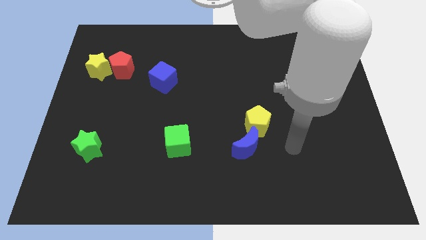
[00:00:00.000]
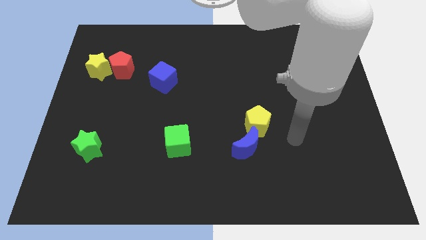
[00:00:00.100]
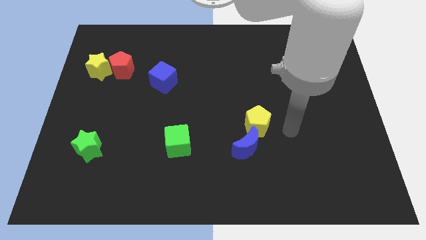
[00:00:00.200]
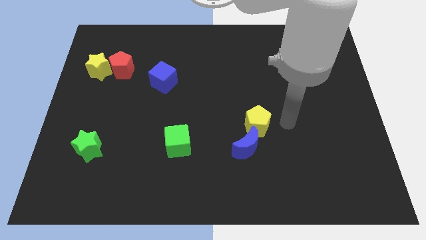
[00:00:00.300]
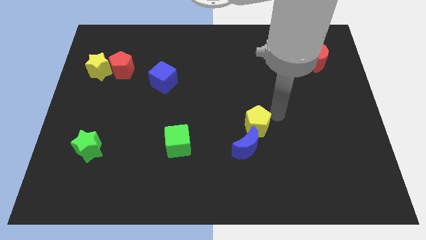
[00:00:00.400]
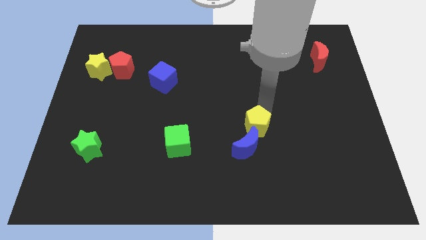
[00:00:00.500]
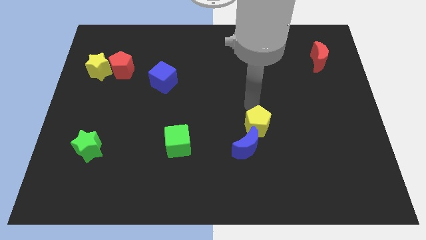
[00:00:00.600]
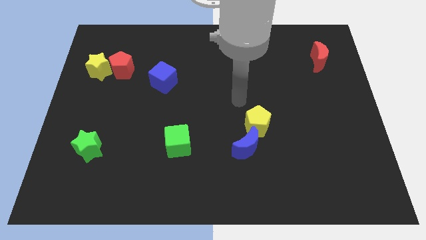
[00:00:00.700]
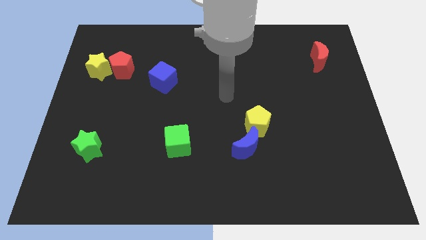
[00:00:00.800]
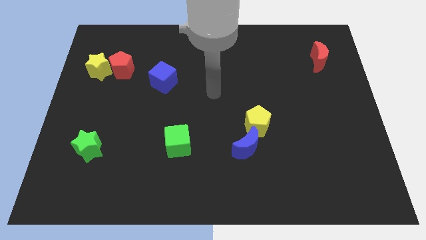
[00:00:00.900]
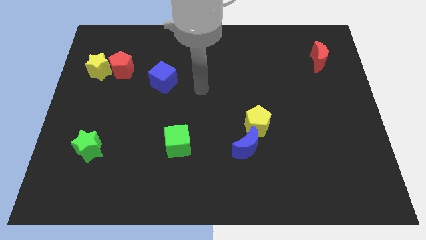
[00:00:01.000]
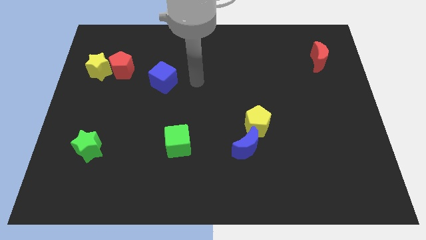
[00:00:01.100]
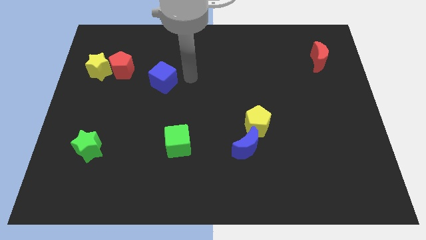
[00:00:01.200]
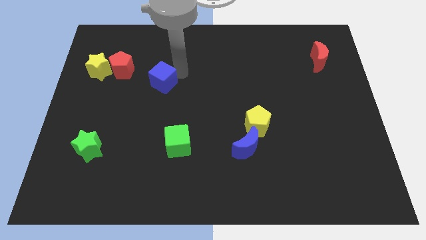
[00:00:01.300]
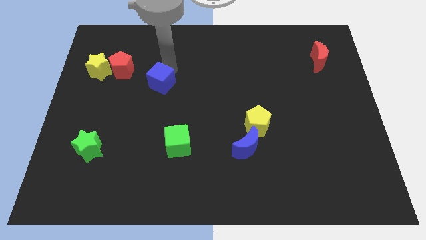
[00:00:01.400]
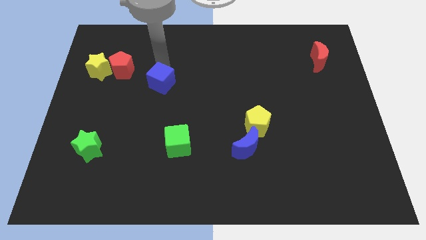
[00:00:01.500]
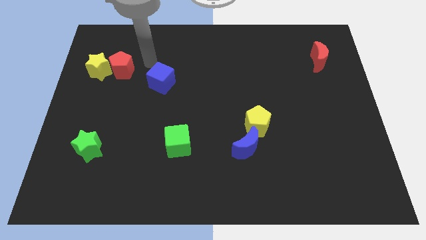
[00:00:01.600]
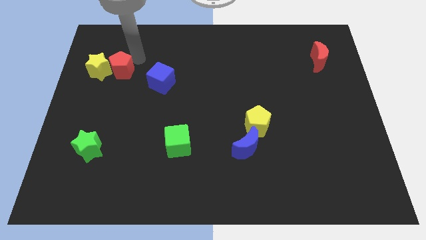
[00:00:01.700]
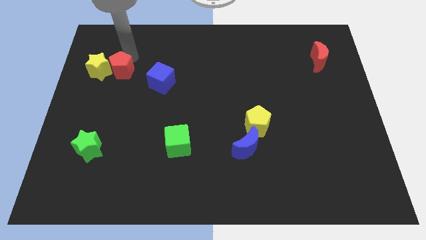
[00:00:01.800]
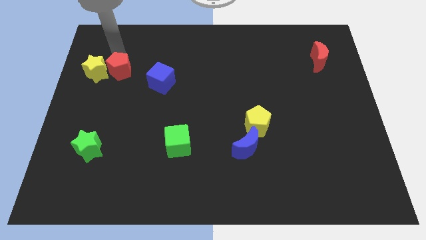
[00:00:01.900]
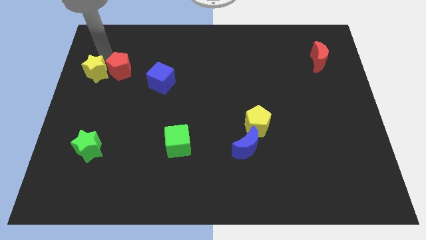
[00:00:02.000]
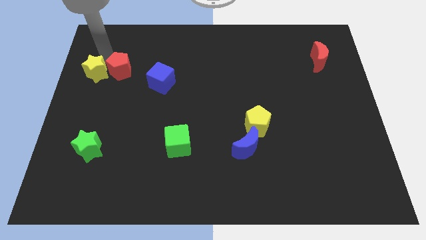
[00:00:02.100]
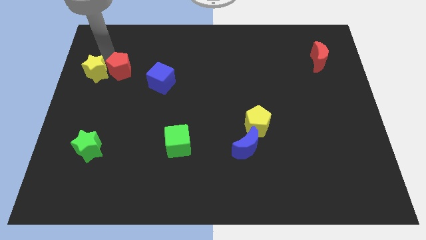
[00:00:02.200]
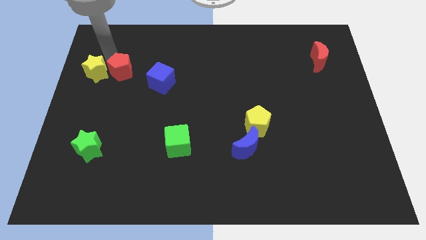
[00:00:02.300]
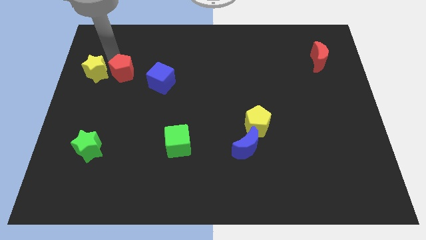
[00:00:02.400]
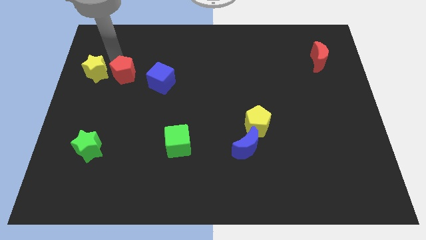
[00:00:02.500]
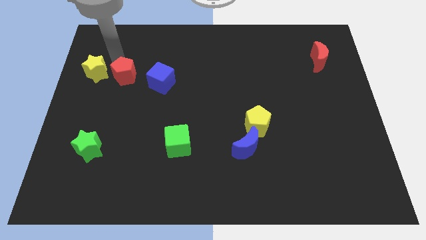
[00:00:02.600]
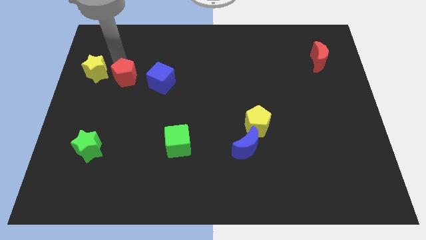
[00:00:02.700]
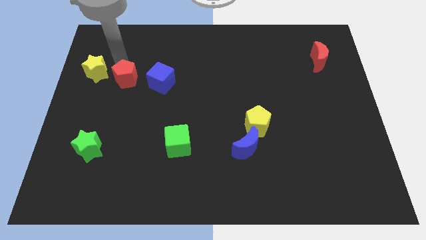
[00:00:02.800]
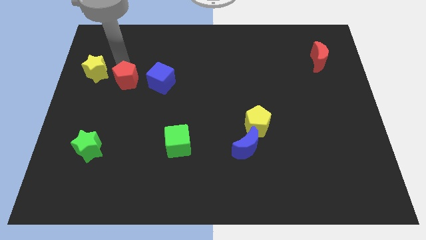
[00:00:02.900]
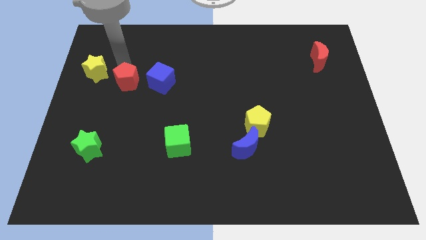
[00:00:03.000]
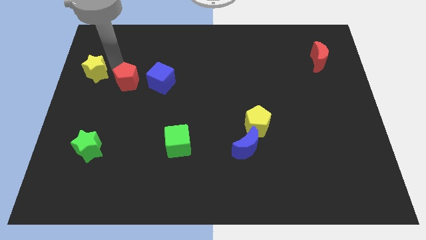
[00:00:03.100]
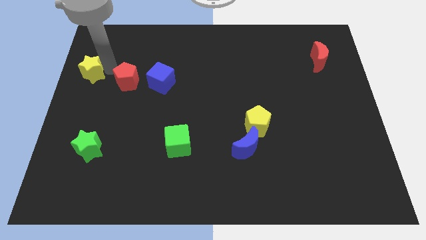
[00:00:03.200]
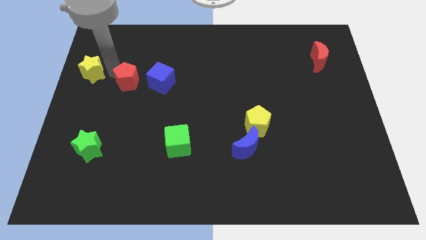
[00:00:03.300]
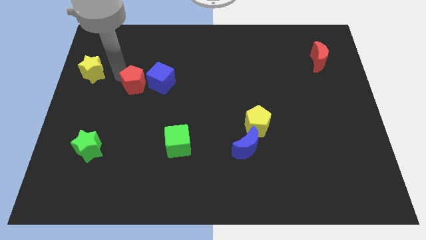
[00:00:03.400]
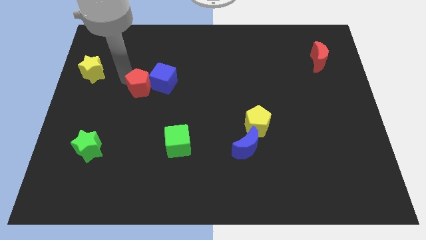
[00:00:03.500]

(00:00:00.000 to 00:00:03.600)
slide the red pentagon diagonally downwards and to the right slightly

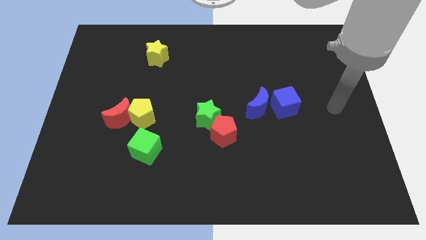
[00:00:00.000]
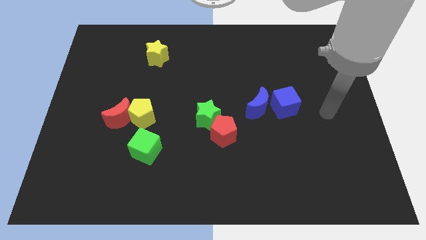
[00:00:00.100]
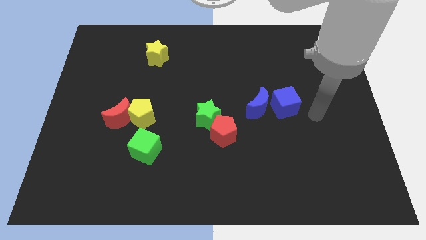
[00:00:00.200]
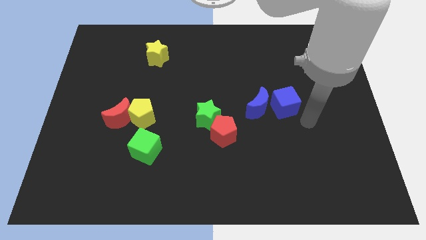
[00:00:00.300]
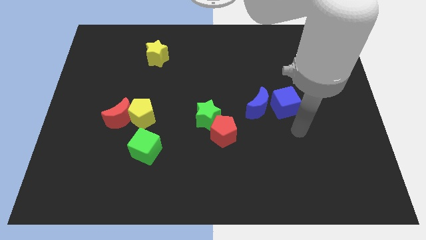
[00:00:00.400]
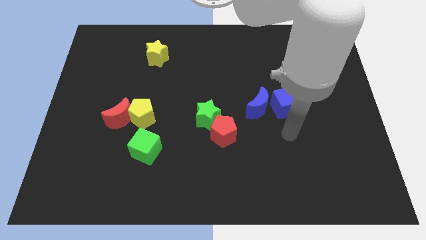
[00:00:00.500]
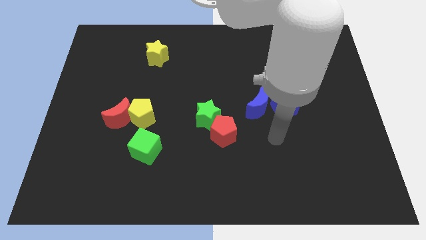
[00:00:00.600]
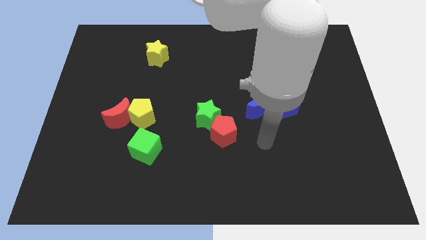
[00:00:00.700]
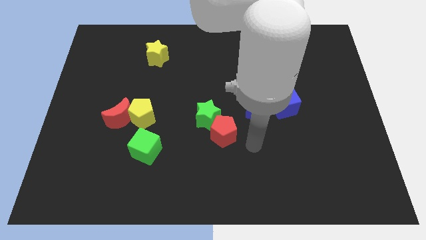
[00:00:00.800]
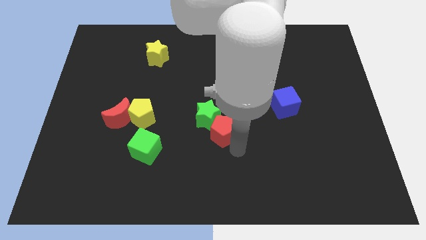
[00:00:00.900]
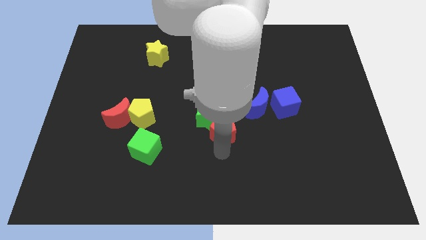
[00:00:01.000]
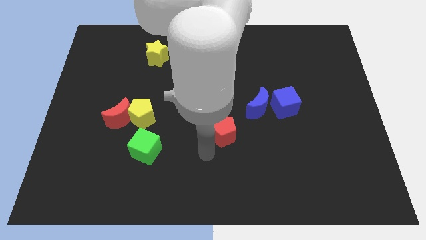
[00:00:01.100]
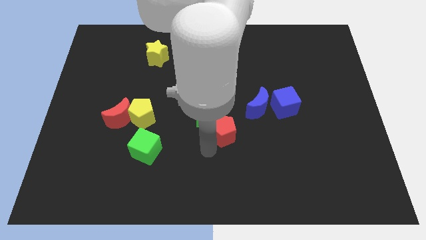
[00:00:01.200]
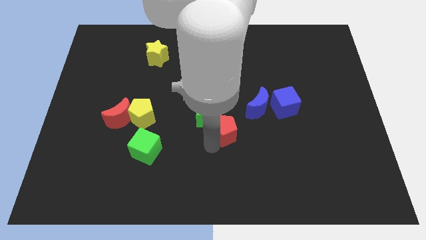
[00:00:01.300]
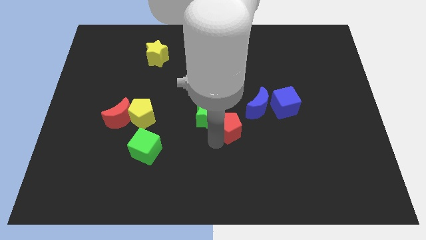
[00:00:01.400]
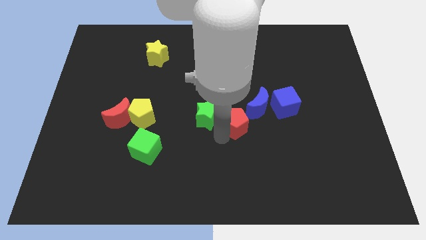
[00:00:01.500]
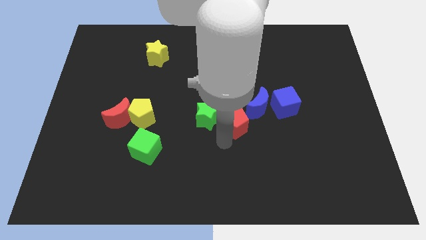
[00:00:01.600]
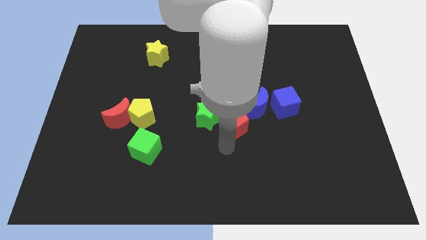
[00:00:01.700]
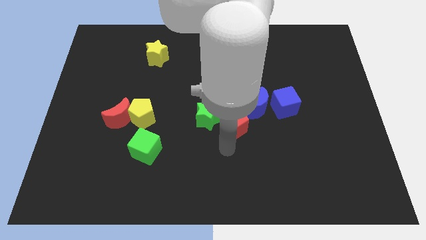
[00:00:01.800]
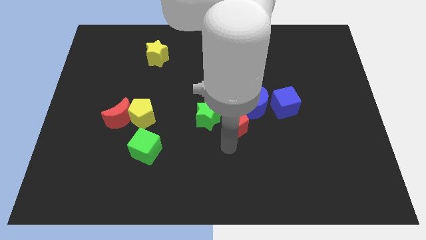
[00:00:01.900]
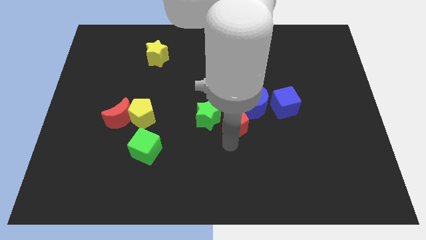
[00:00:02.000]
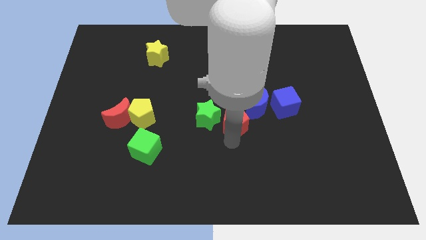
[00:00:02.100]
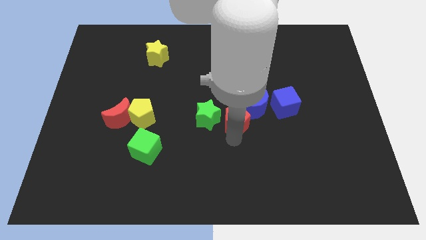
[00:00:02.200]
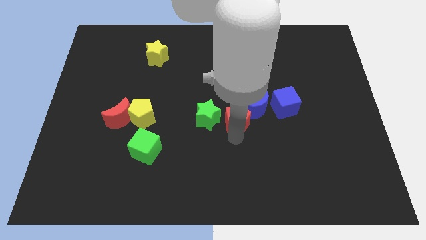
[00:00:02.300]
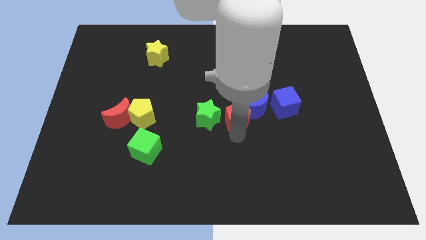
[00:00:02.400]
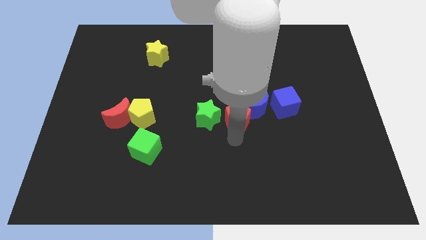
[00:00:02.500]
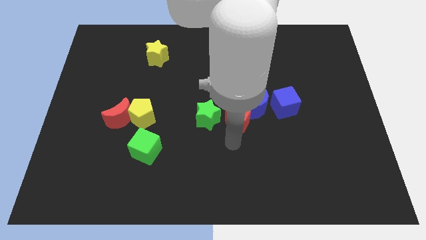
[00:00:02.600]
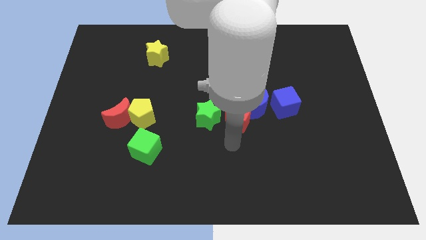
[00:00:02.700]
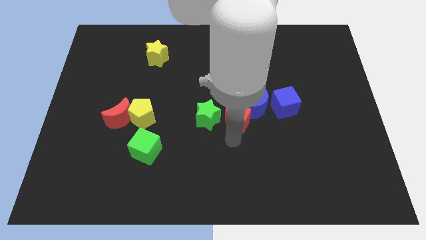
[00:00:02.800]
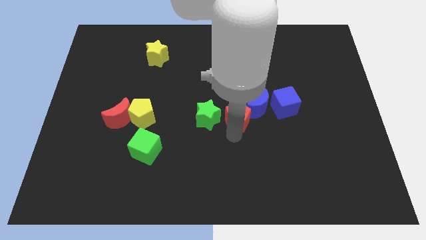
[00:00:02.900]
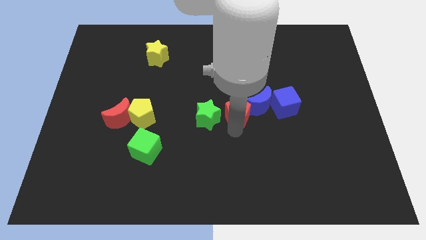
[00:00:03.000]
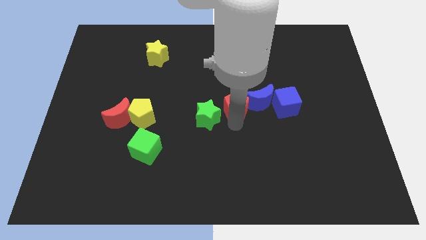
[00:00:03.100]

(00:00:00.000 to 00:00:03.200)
push the red pentagon a little up and then right

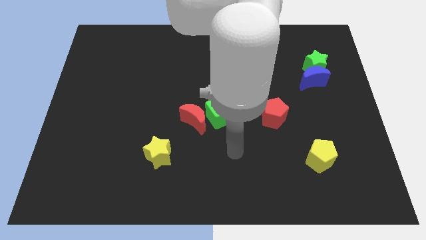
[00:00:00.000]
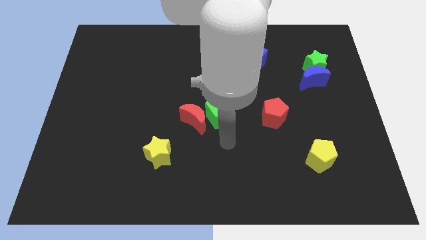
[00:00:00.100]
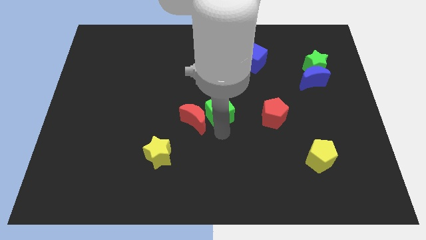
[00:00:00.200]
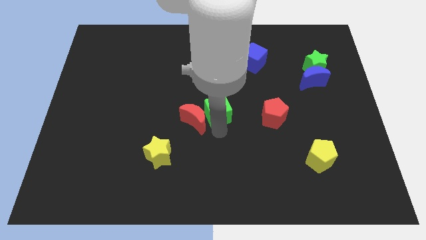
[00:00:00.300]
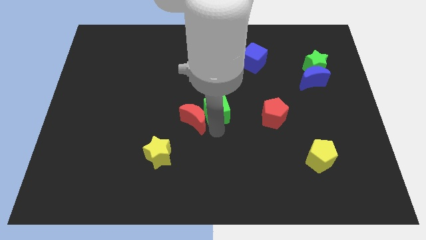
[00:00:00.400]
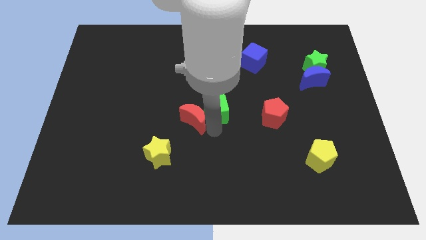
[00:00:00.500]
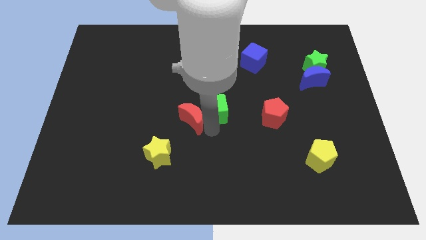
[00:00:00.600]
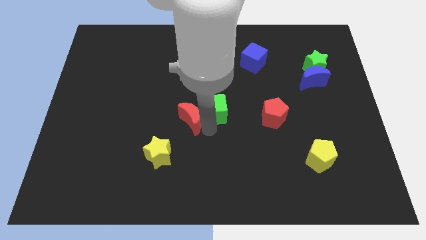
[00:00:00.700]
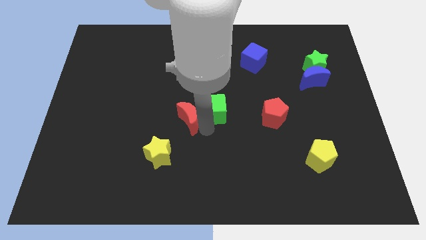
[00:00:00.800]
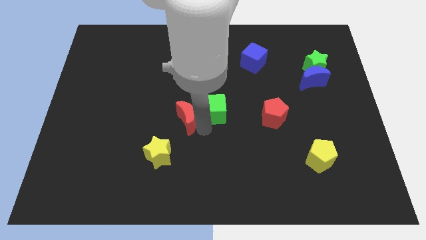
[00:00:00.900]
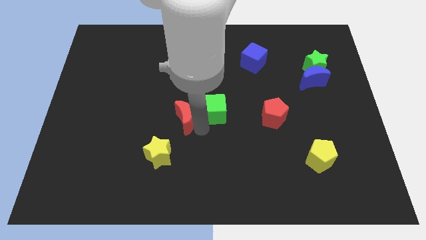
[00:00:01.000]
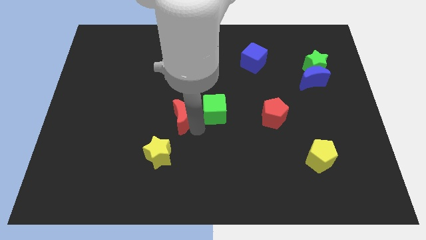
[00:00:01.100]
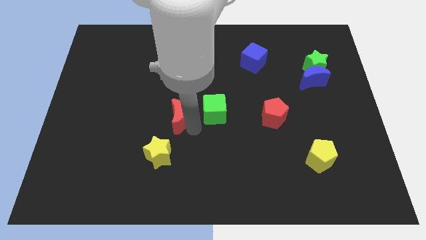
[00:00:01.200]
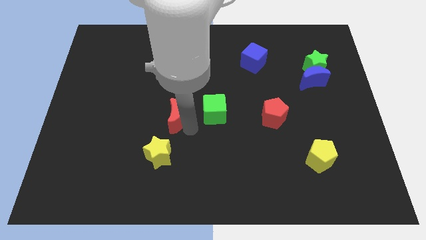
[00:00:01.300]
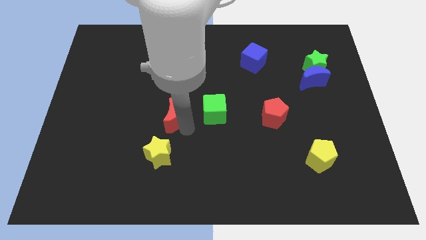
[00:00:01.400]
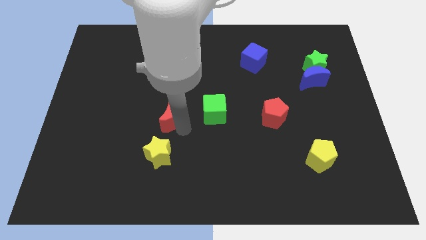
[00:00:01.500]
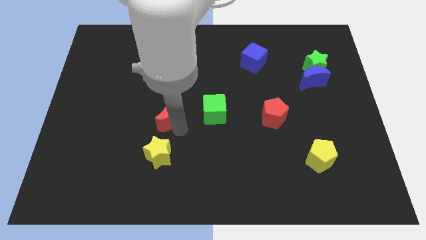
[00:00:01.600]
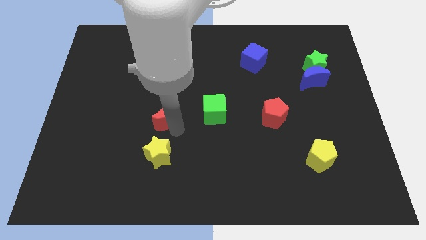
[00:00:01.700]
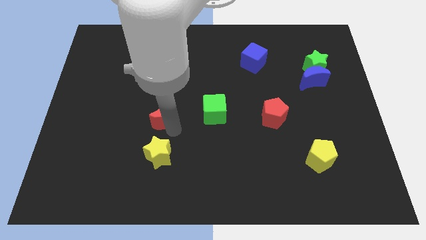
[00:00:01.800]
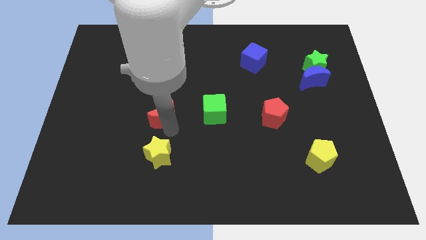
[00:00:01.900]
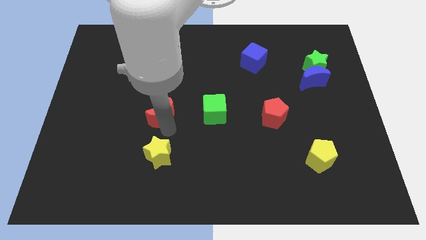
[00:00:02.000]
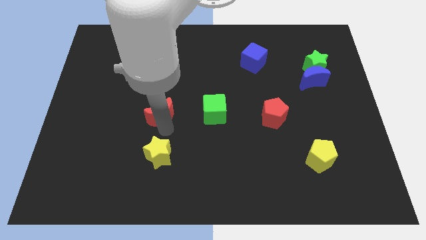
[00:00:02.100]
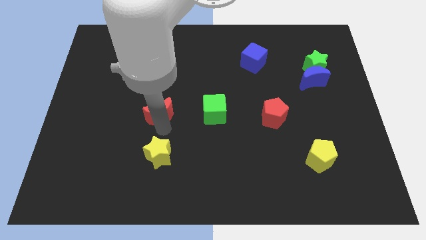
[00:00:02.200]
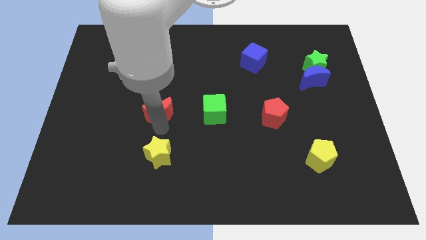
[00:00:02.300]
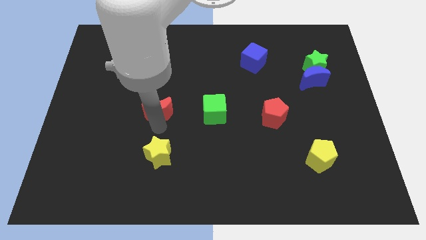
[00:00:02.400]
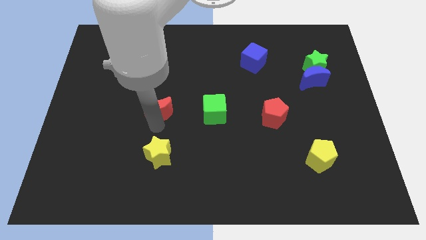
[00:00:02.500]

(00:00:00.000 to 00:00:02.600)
slightly move the red moon upwards and left
